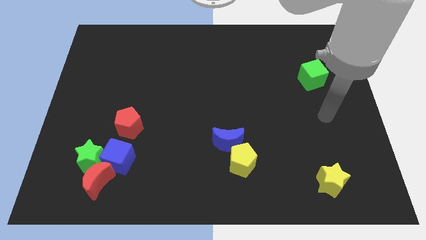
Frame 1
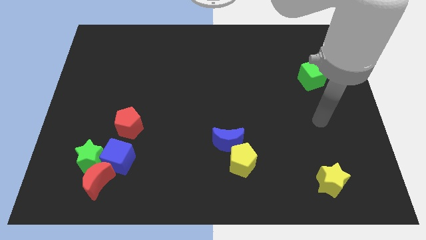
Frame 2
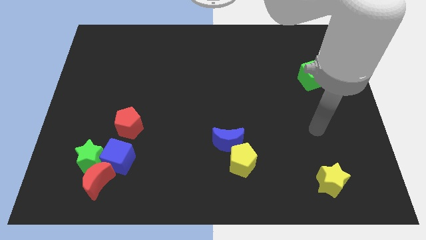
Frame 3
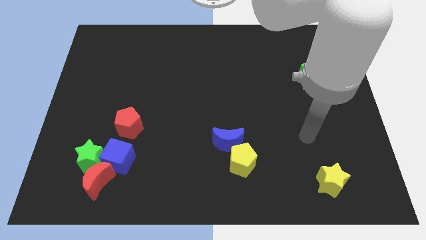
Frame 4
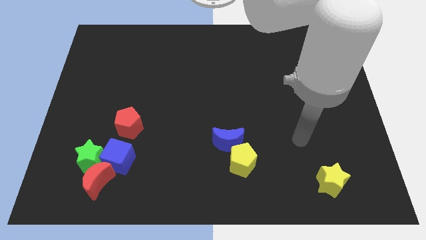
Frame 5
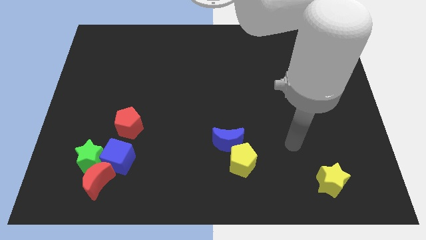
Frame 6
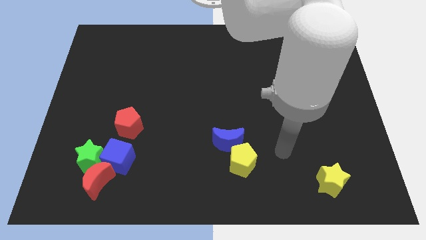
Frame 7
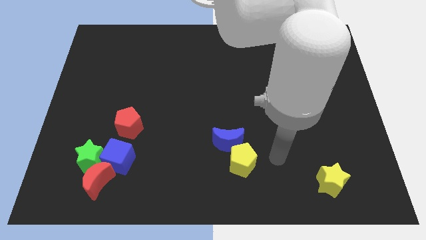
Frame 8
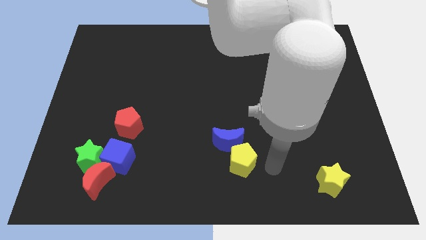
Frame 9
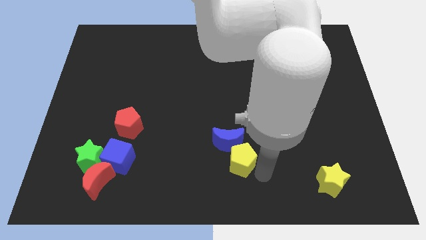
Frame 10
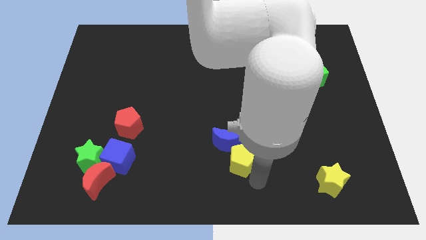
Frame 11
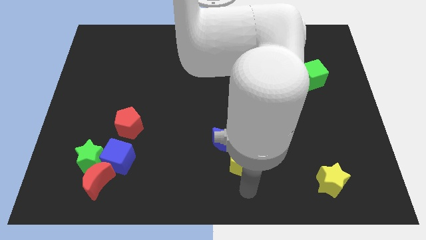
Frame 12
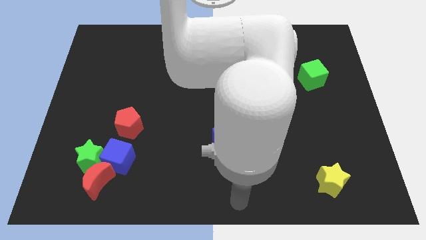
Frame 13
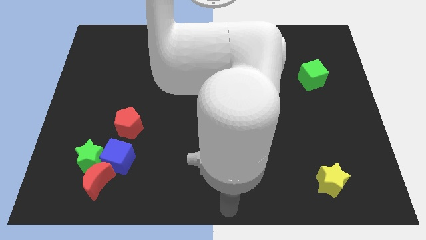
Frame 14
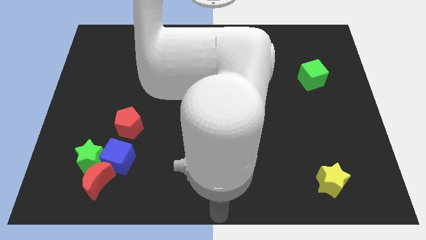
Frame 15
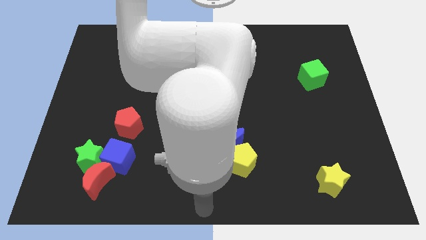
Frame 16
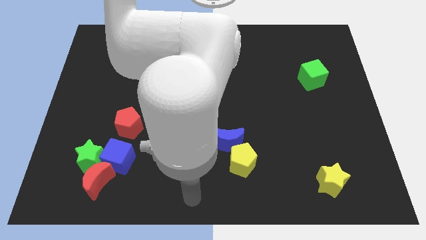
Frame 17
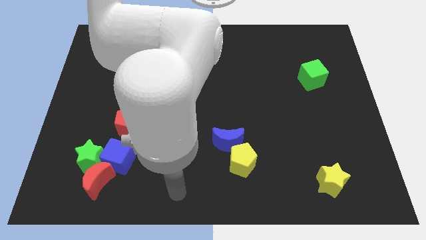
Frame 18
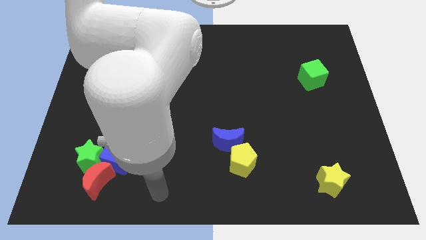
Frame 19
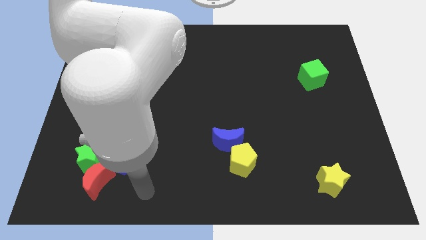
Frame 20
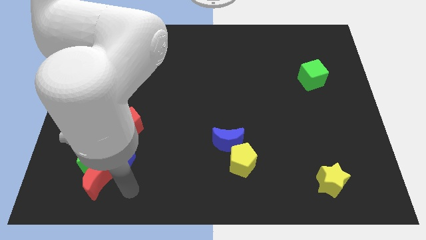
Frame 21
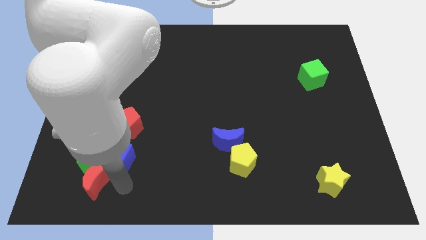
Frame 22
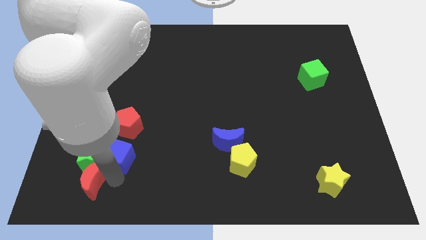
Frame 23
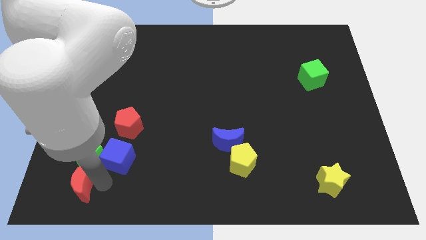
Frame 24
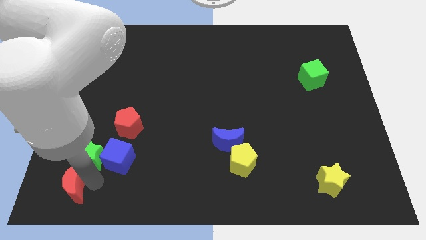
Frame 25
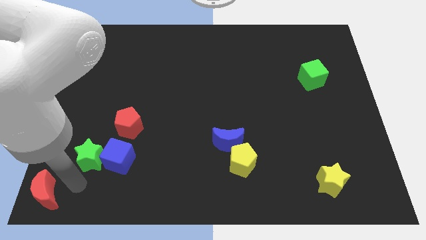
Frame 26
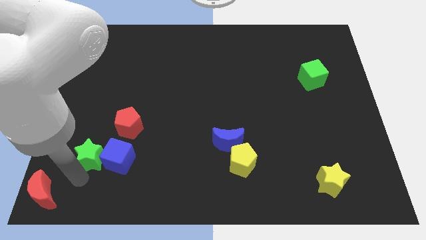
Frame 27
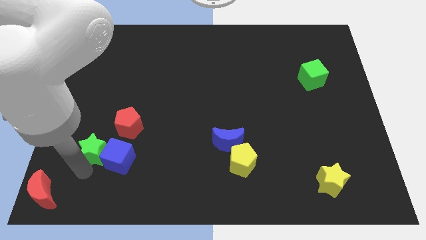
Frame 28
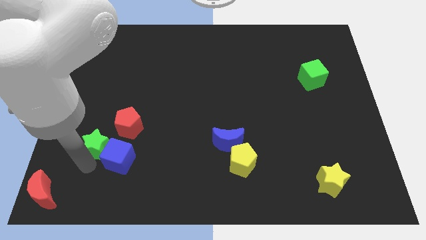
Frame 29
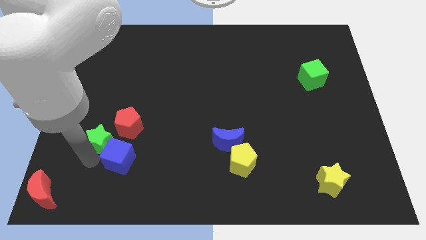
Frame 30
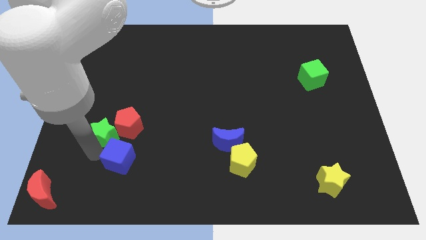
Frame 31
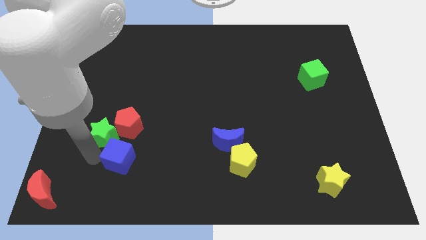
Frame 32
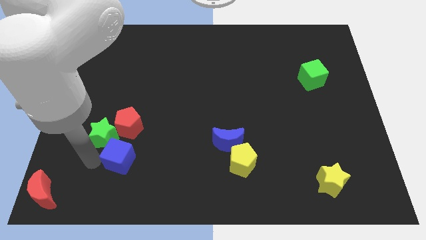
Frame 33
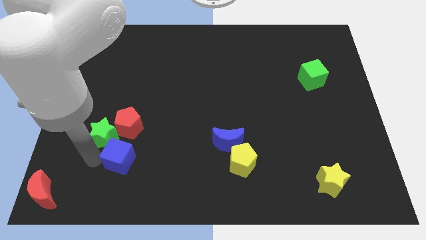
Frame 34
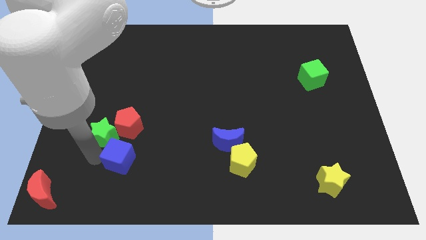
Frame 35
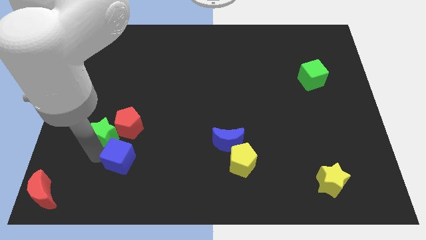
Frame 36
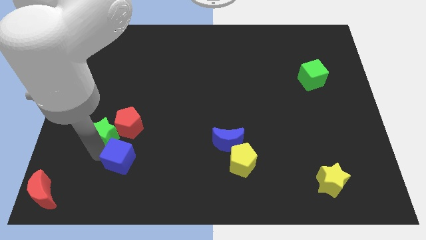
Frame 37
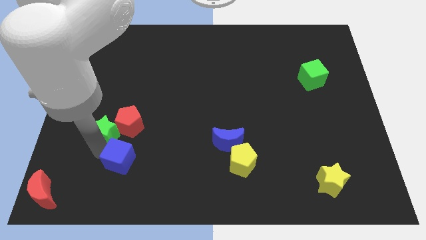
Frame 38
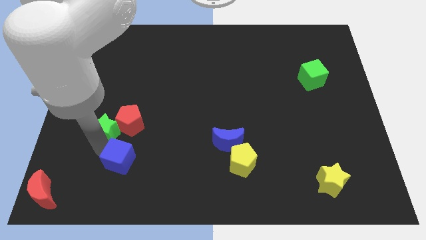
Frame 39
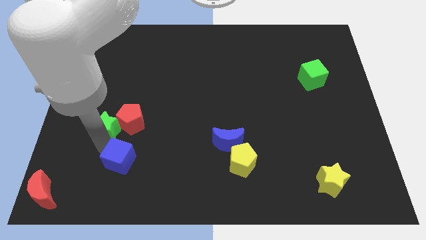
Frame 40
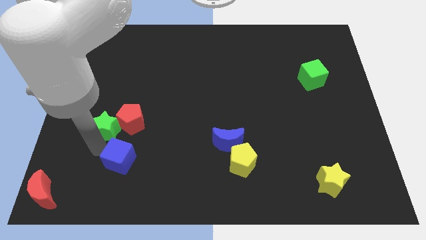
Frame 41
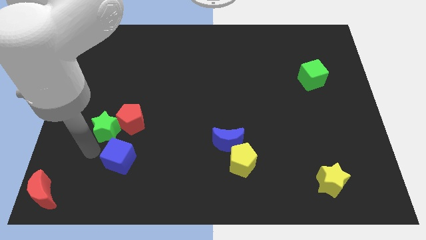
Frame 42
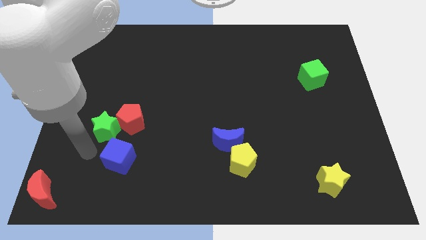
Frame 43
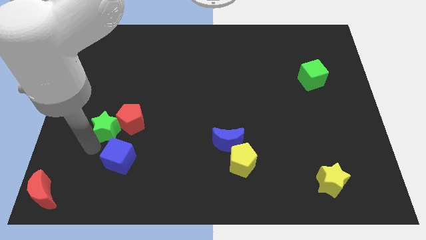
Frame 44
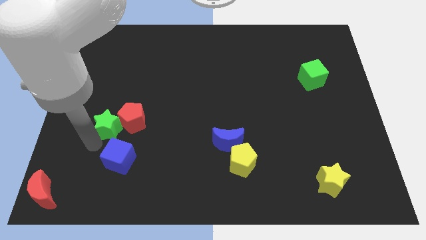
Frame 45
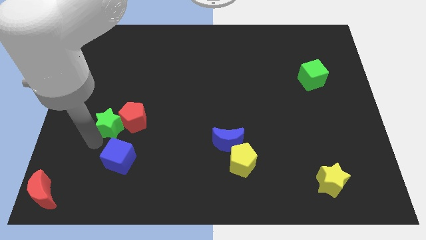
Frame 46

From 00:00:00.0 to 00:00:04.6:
slightly move the green star up and right

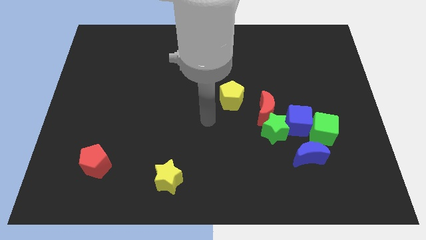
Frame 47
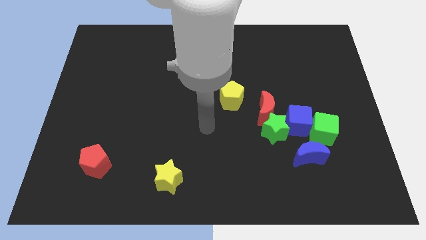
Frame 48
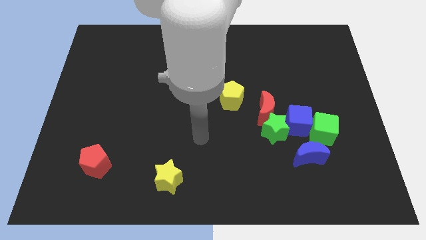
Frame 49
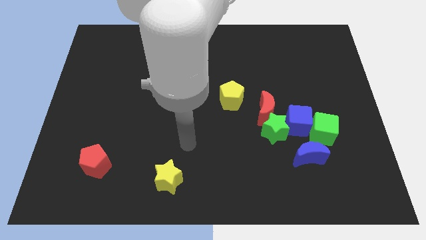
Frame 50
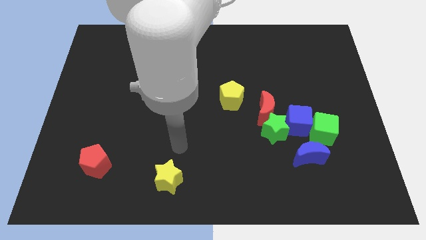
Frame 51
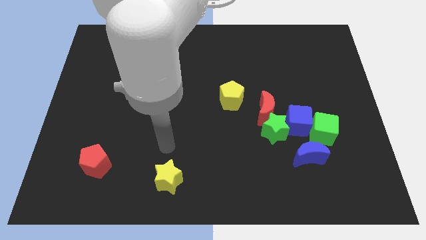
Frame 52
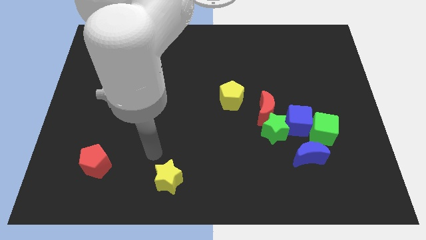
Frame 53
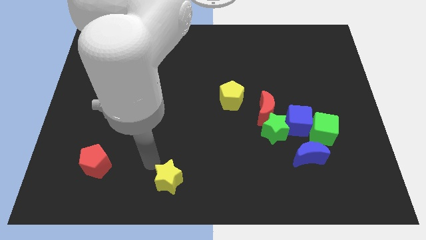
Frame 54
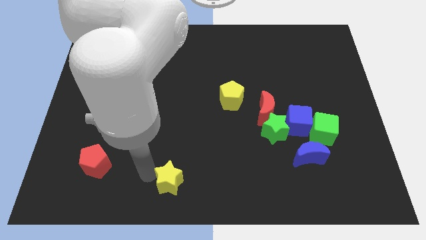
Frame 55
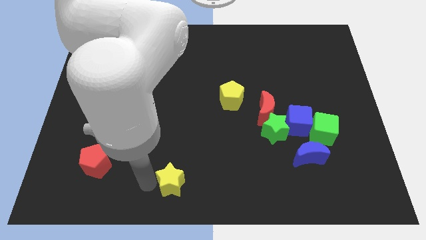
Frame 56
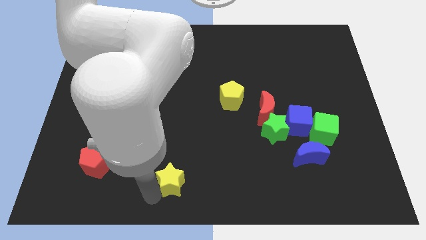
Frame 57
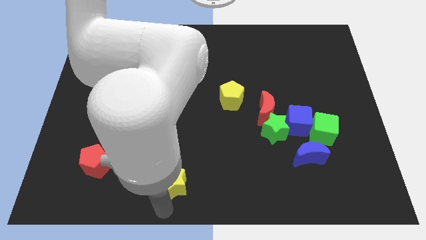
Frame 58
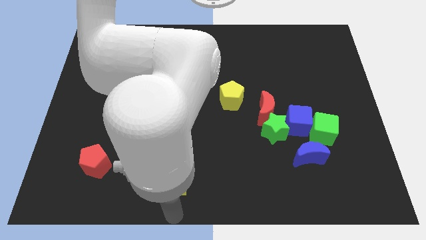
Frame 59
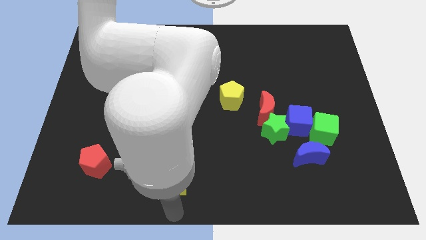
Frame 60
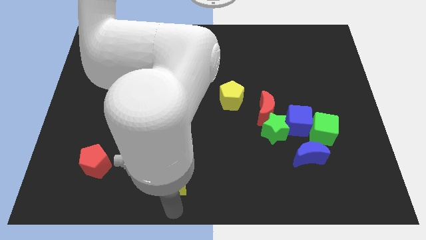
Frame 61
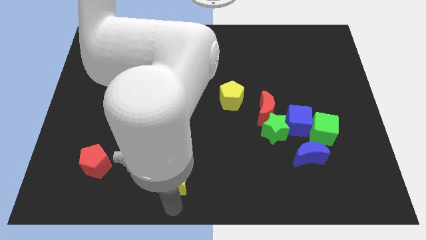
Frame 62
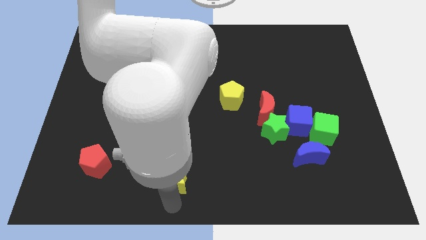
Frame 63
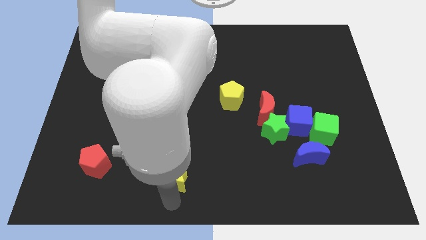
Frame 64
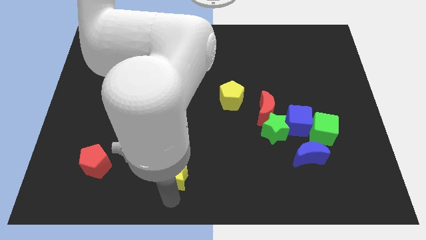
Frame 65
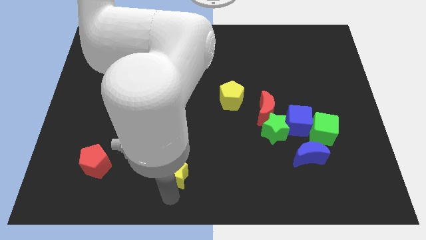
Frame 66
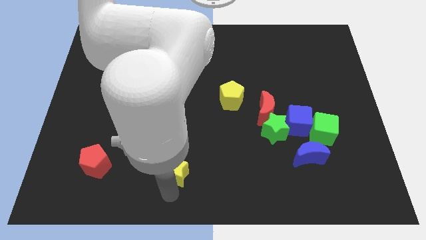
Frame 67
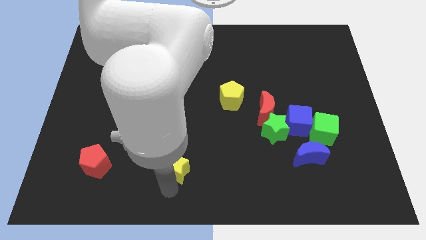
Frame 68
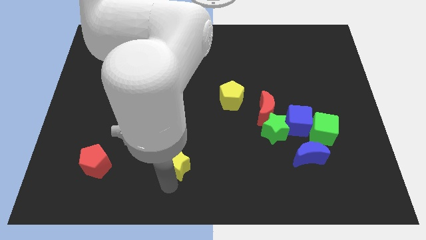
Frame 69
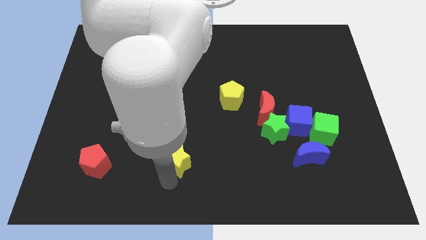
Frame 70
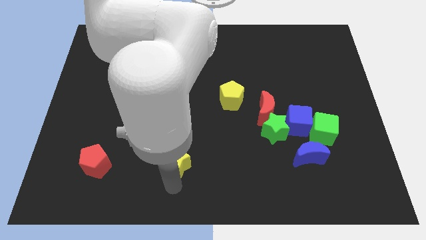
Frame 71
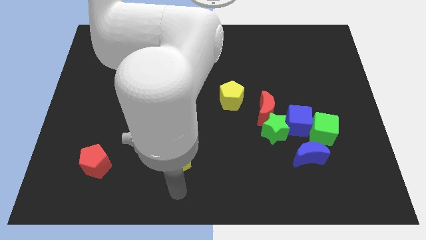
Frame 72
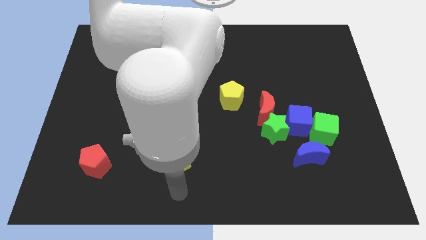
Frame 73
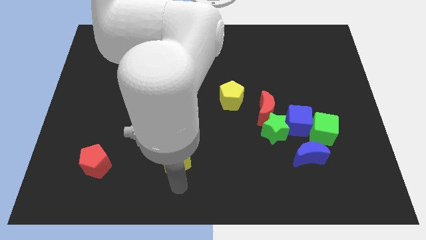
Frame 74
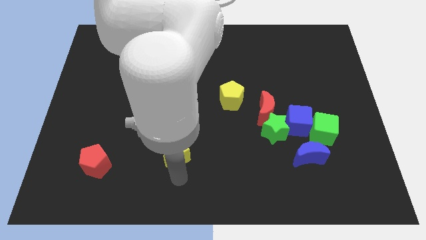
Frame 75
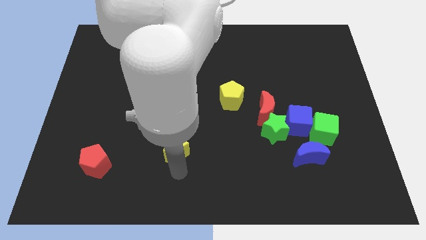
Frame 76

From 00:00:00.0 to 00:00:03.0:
slide the yellow star somewhat upwards
